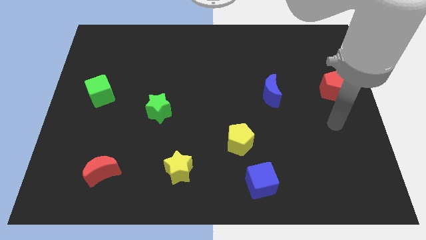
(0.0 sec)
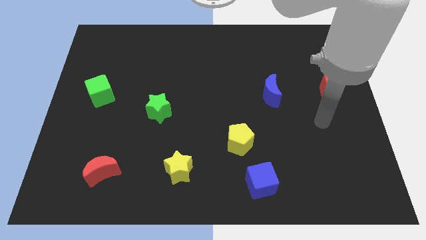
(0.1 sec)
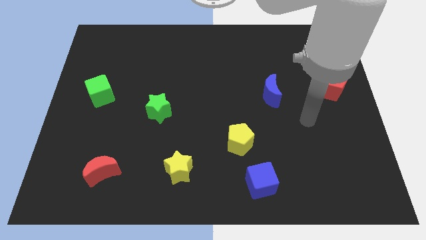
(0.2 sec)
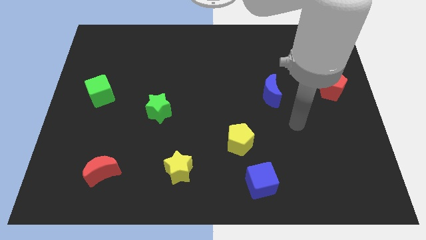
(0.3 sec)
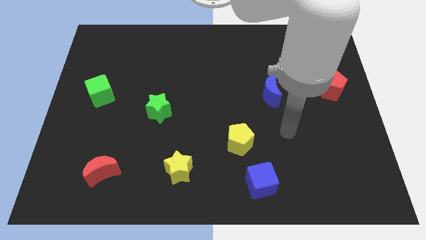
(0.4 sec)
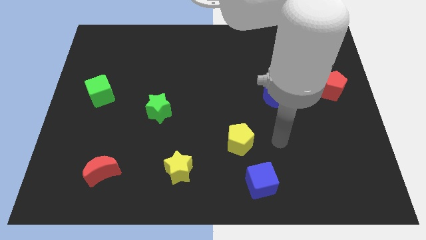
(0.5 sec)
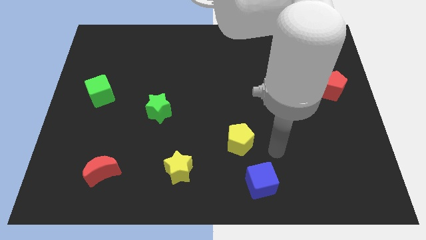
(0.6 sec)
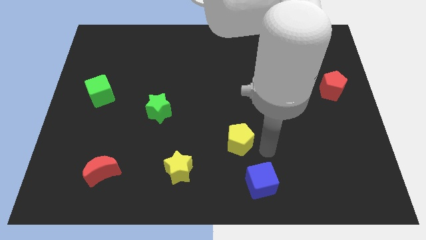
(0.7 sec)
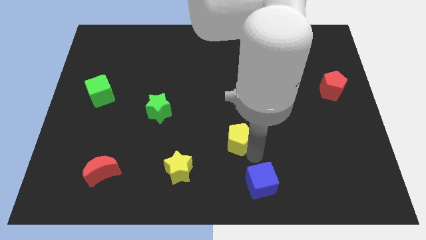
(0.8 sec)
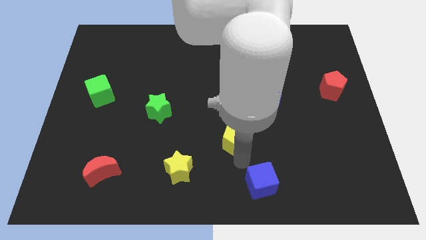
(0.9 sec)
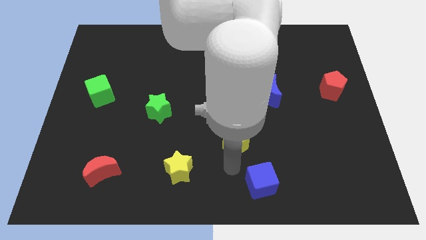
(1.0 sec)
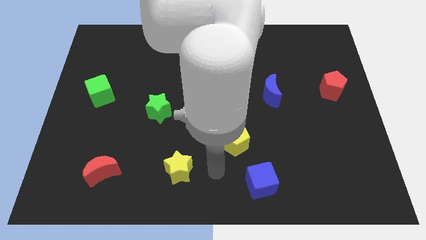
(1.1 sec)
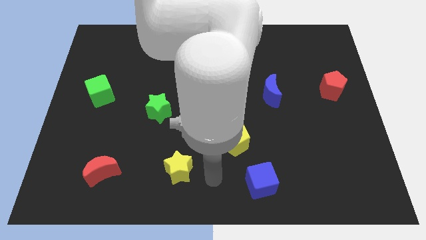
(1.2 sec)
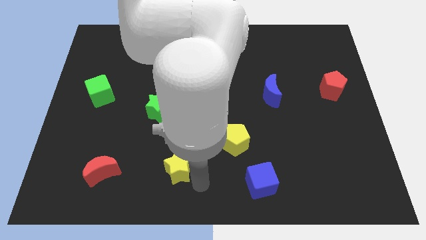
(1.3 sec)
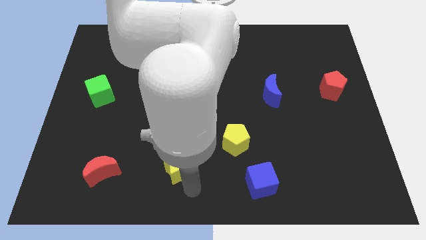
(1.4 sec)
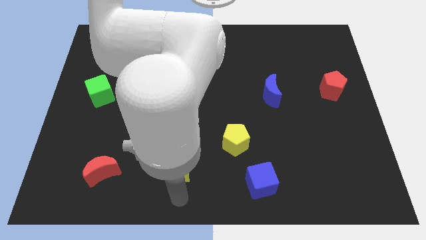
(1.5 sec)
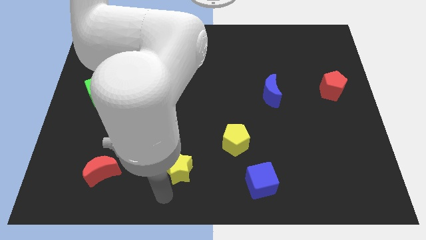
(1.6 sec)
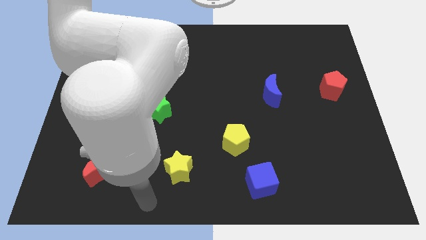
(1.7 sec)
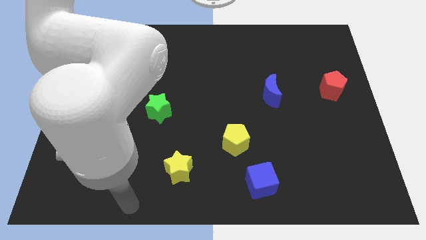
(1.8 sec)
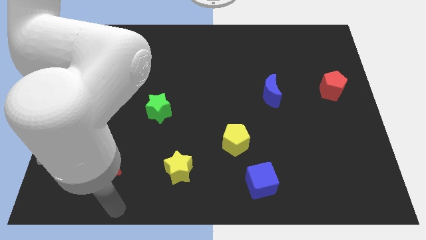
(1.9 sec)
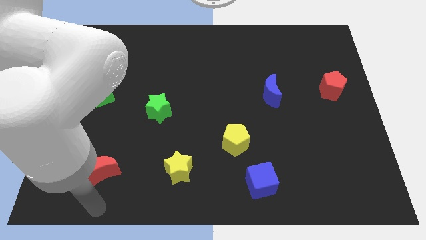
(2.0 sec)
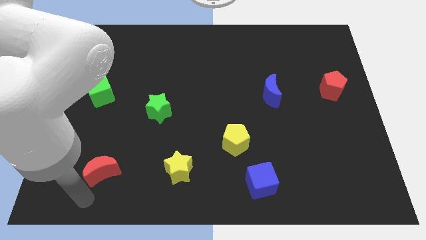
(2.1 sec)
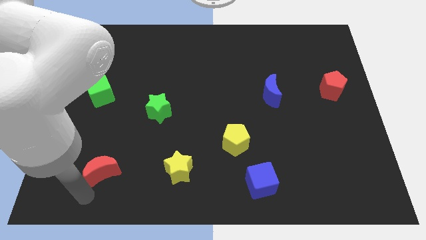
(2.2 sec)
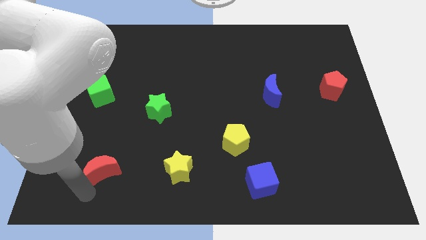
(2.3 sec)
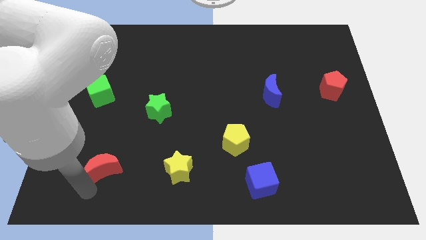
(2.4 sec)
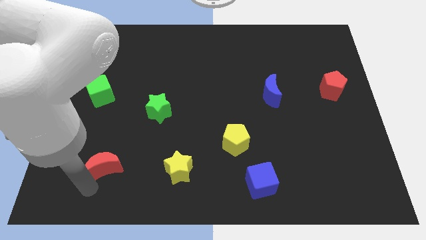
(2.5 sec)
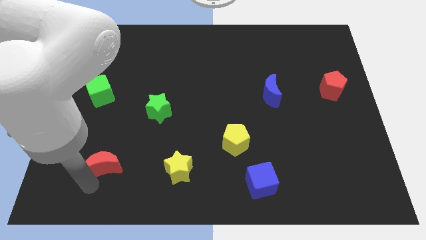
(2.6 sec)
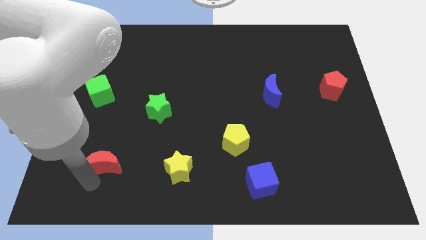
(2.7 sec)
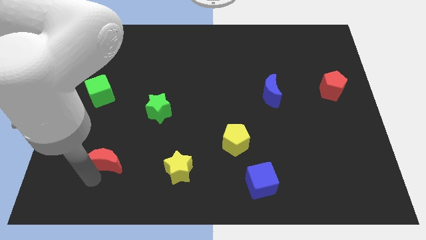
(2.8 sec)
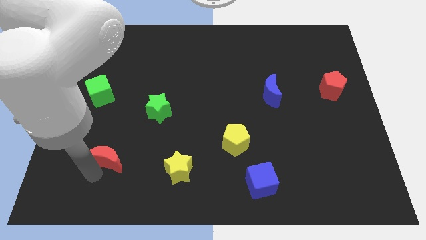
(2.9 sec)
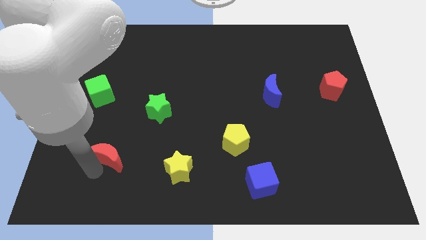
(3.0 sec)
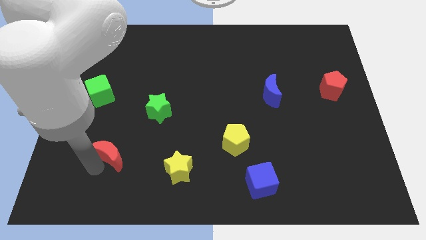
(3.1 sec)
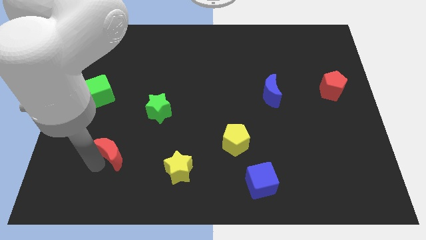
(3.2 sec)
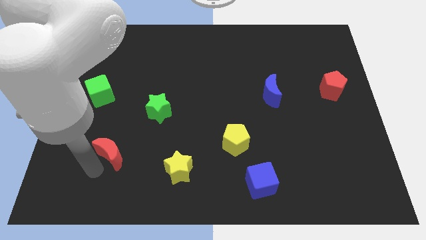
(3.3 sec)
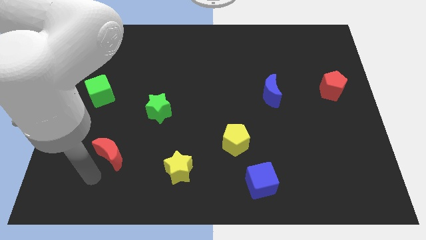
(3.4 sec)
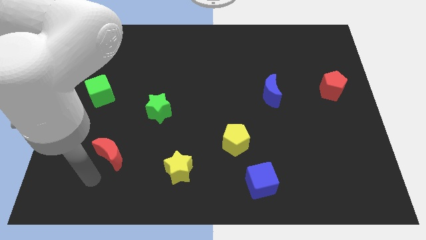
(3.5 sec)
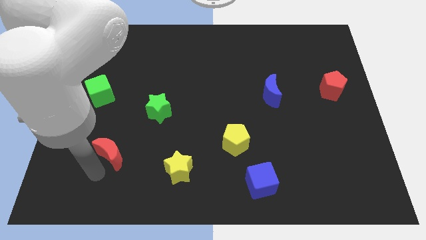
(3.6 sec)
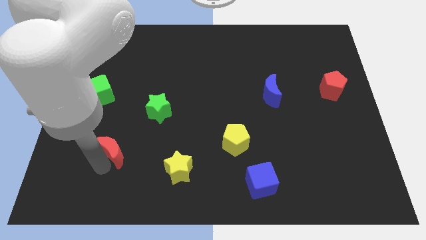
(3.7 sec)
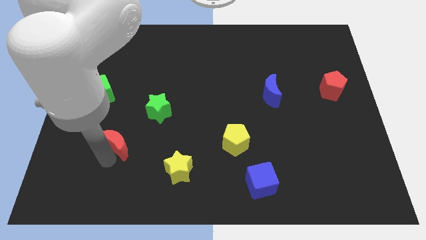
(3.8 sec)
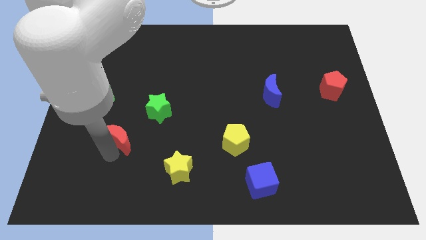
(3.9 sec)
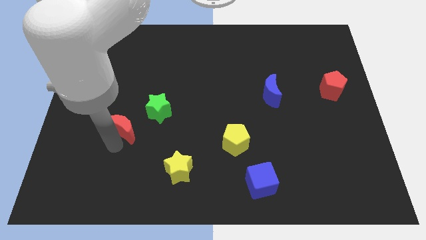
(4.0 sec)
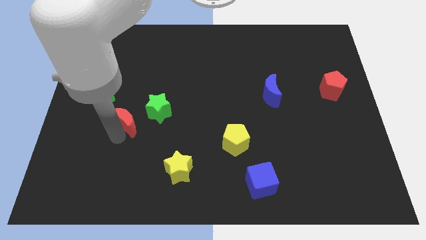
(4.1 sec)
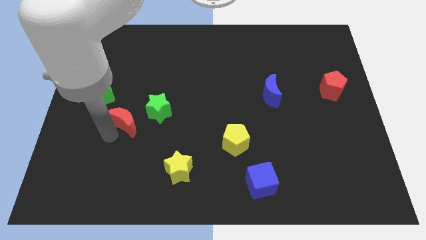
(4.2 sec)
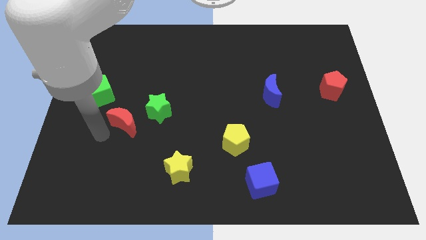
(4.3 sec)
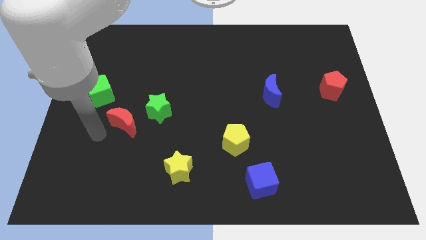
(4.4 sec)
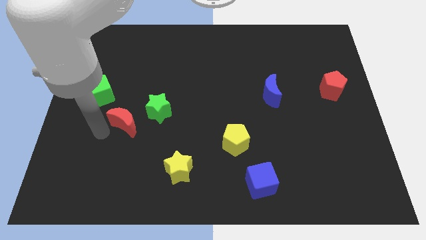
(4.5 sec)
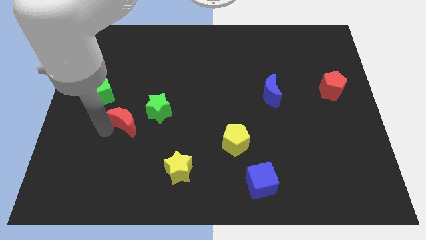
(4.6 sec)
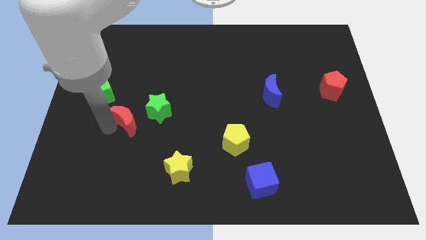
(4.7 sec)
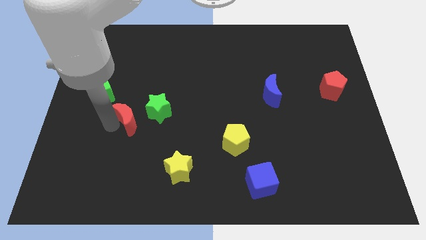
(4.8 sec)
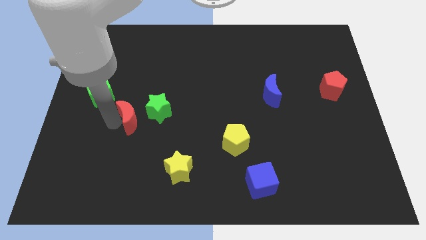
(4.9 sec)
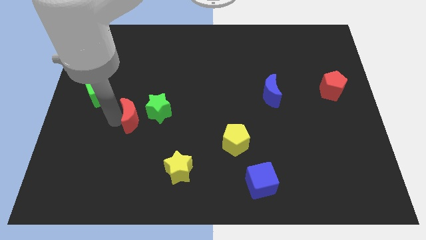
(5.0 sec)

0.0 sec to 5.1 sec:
push the red moon to the green star

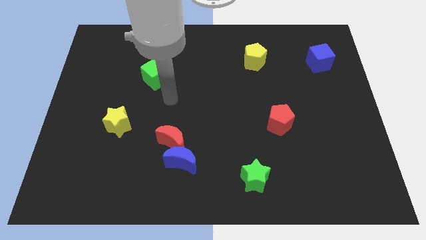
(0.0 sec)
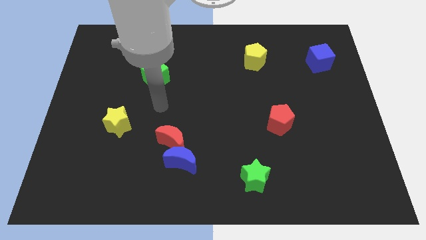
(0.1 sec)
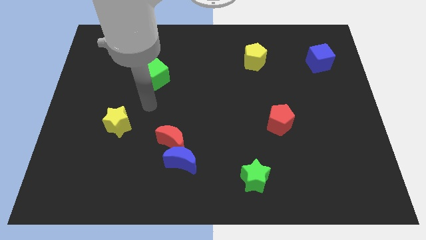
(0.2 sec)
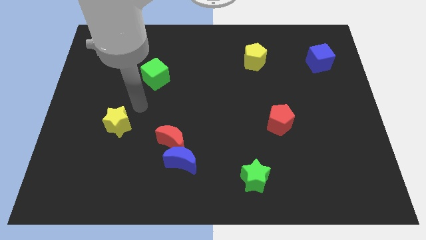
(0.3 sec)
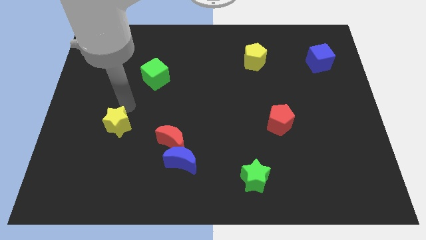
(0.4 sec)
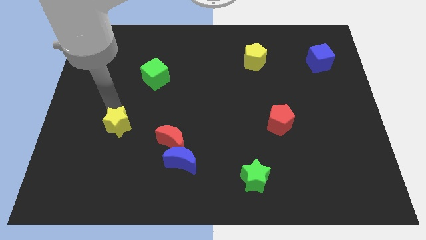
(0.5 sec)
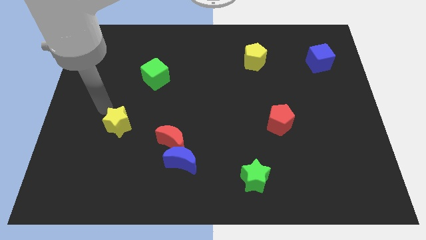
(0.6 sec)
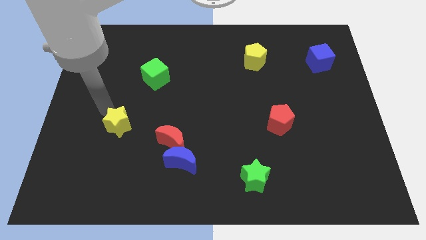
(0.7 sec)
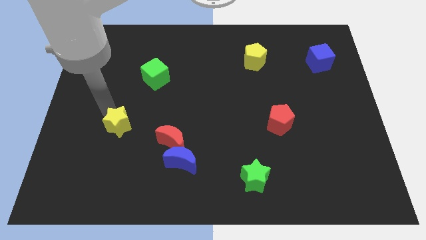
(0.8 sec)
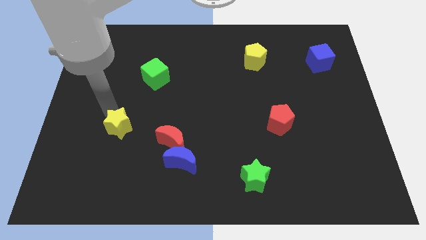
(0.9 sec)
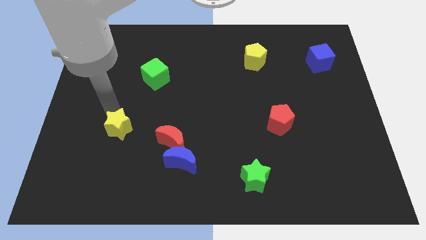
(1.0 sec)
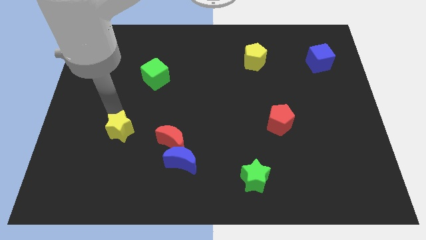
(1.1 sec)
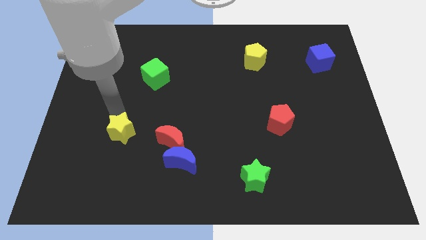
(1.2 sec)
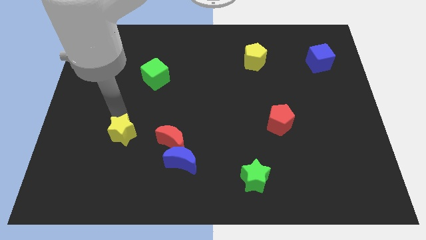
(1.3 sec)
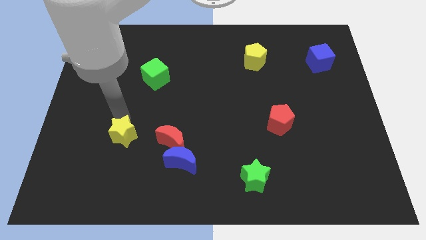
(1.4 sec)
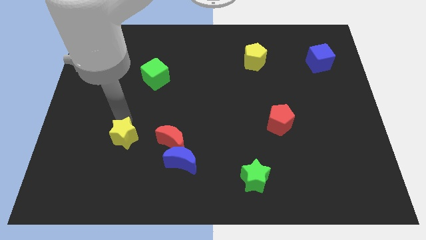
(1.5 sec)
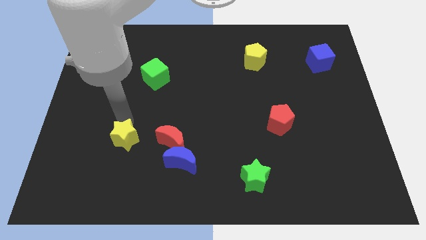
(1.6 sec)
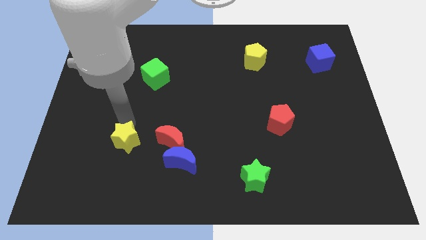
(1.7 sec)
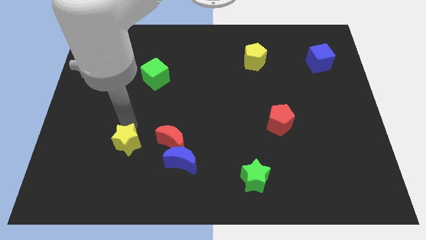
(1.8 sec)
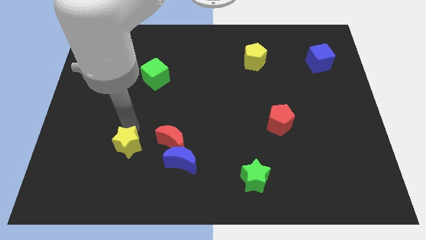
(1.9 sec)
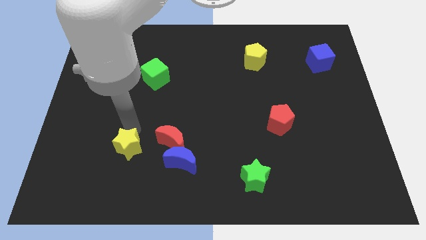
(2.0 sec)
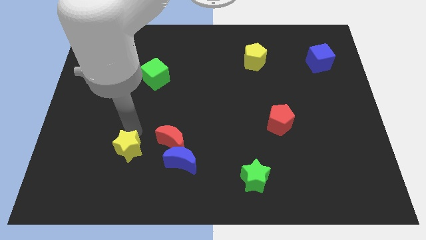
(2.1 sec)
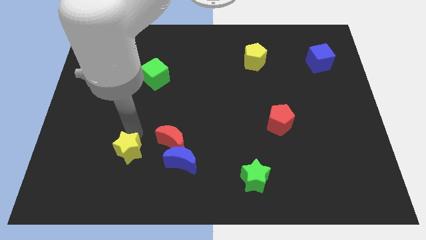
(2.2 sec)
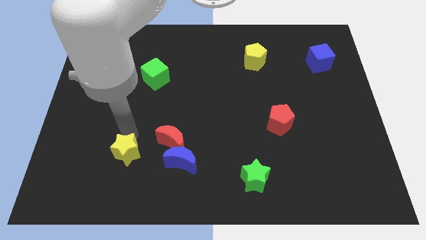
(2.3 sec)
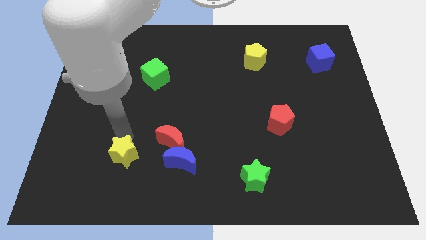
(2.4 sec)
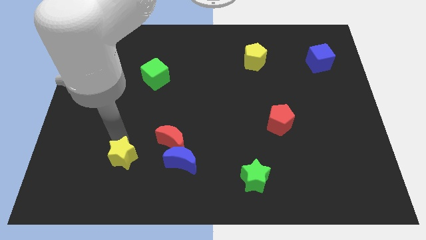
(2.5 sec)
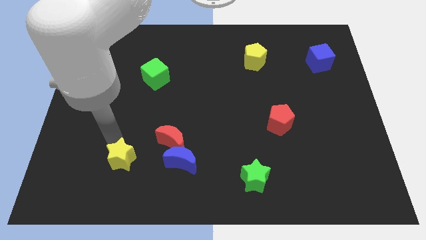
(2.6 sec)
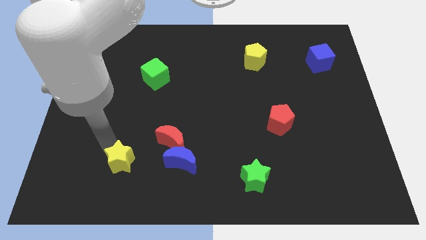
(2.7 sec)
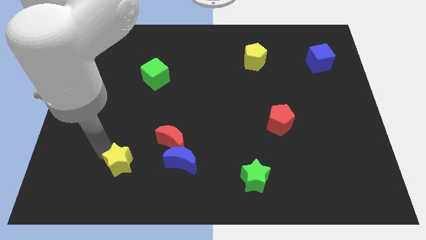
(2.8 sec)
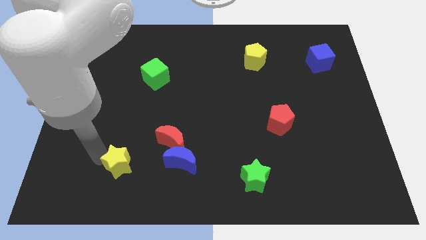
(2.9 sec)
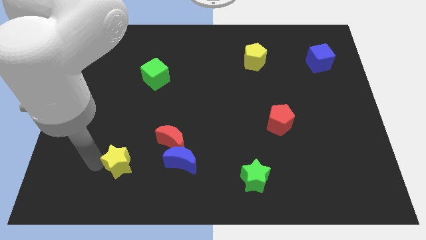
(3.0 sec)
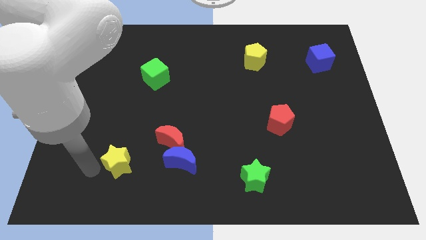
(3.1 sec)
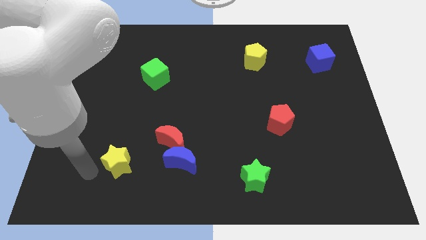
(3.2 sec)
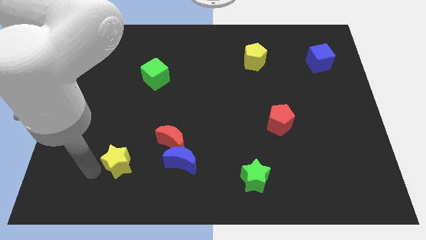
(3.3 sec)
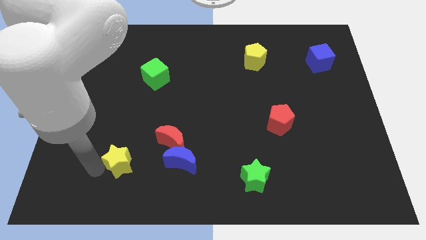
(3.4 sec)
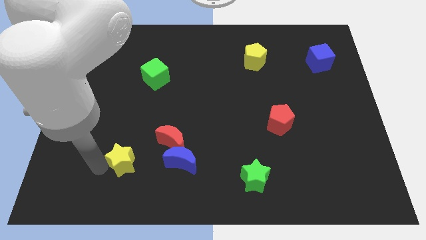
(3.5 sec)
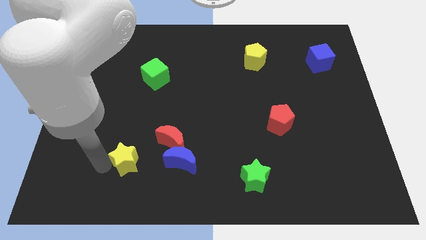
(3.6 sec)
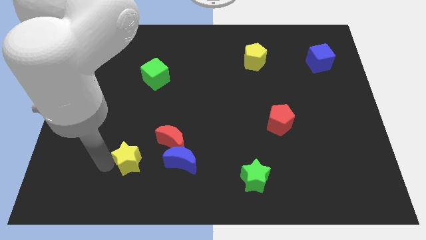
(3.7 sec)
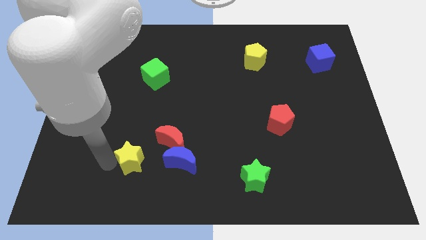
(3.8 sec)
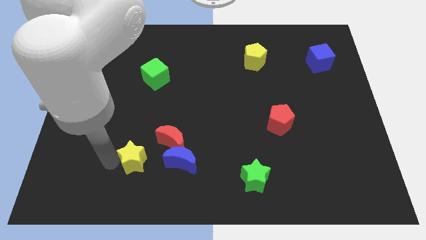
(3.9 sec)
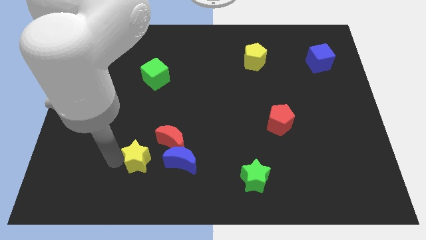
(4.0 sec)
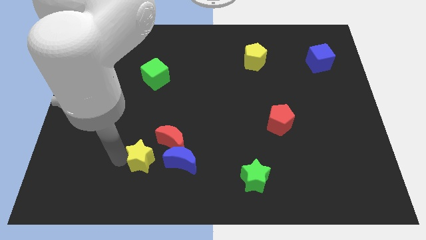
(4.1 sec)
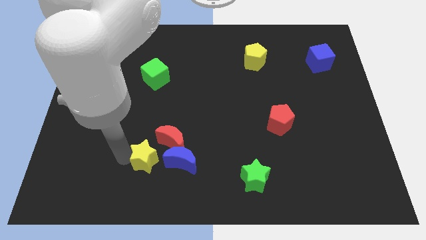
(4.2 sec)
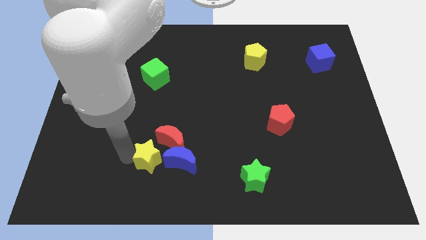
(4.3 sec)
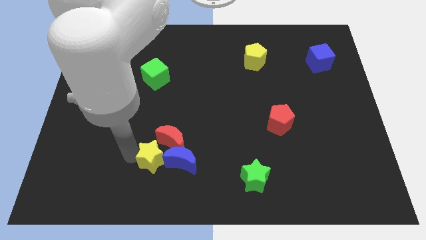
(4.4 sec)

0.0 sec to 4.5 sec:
put the yellow star next to the blue moon
